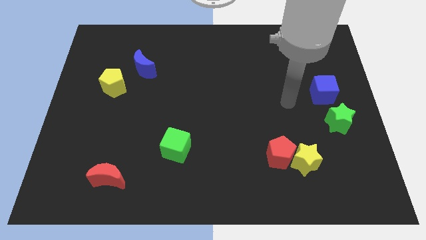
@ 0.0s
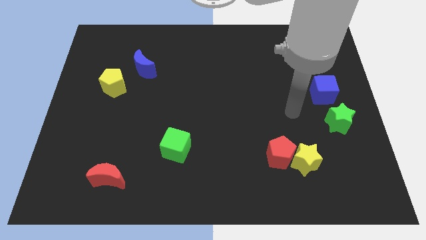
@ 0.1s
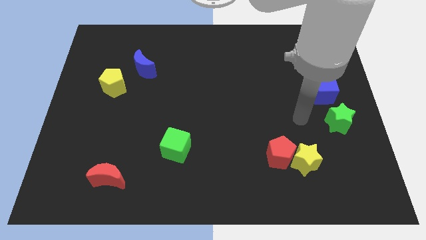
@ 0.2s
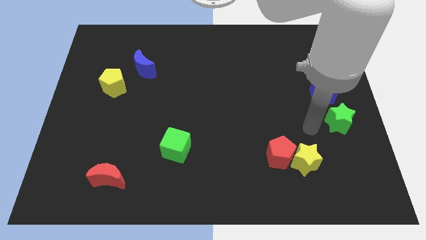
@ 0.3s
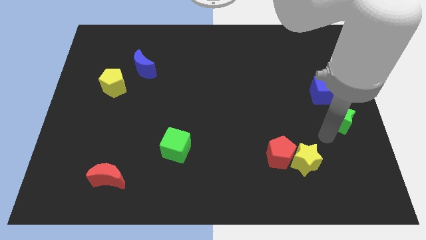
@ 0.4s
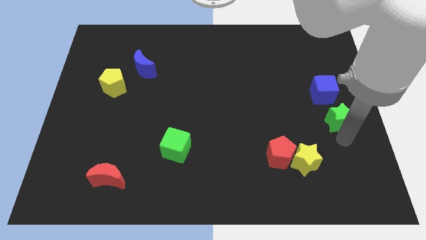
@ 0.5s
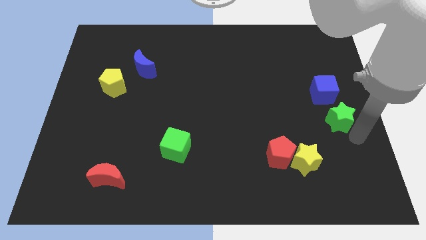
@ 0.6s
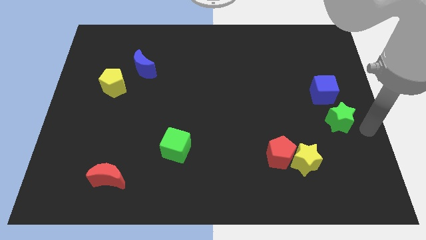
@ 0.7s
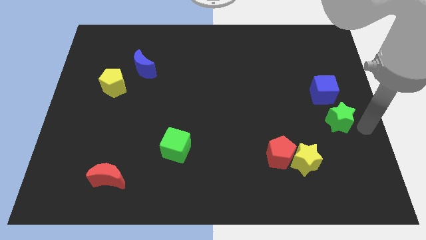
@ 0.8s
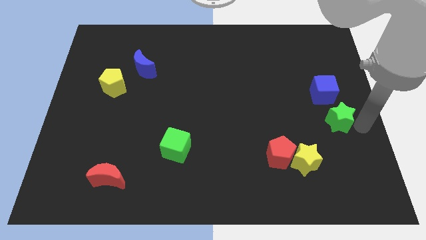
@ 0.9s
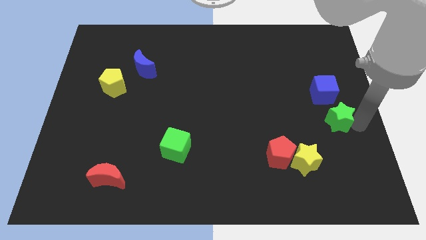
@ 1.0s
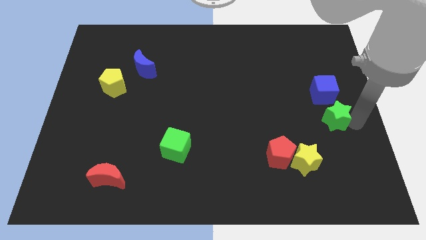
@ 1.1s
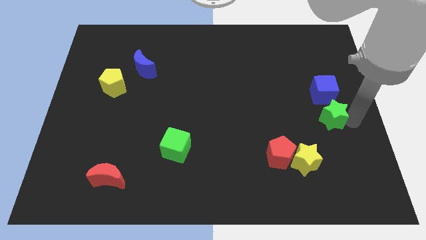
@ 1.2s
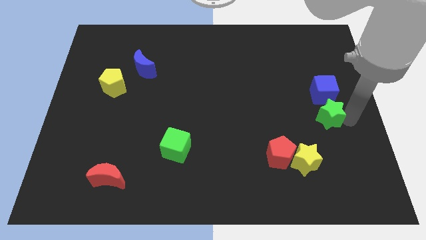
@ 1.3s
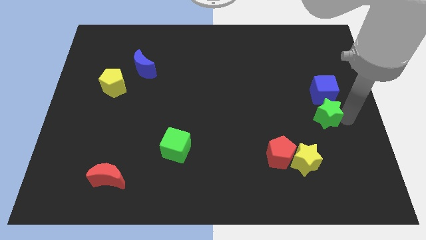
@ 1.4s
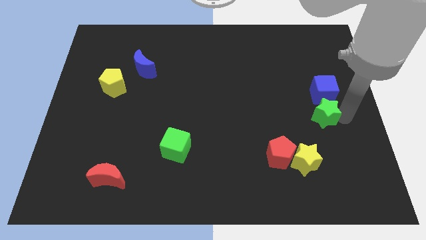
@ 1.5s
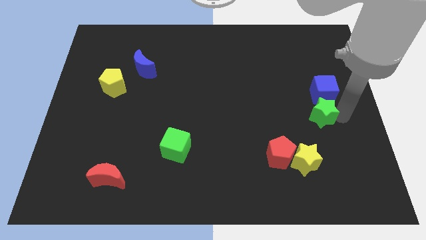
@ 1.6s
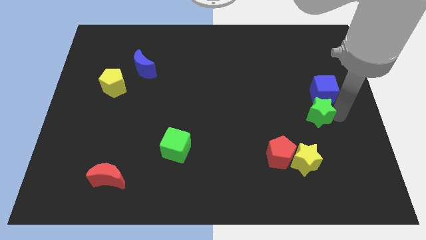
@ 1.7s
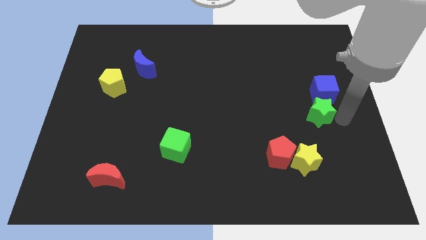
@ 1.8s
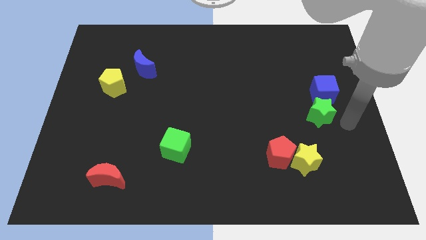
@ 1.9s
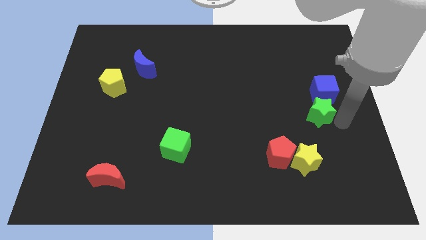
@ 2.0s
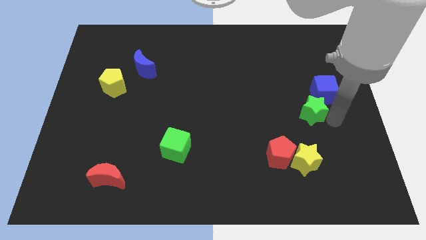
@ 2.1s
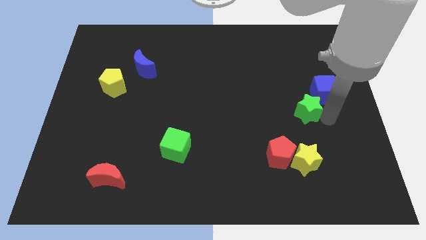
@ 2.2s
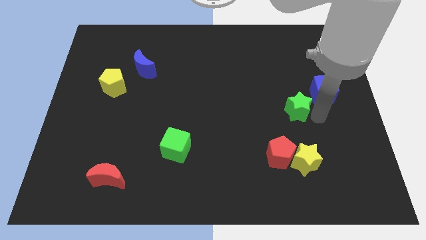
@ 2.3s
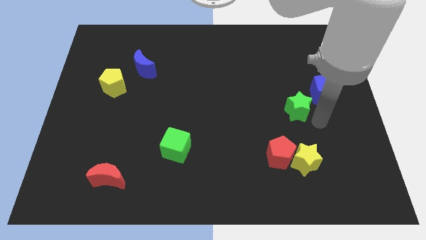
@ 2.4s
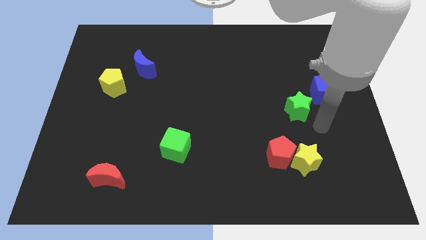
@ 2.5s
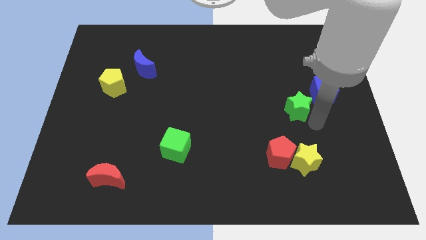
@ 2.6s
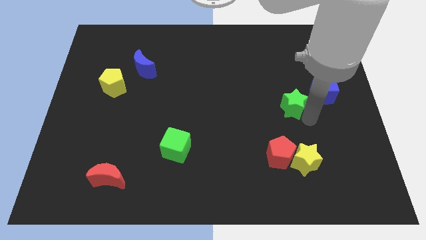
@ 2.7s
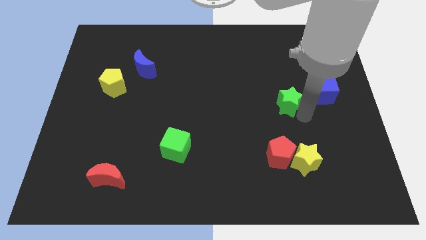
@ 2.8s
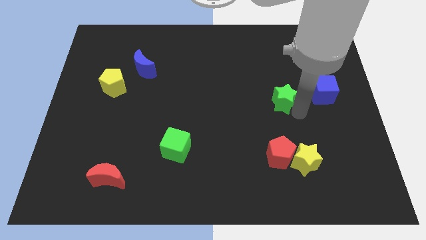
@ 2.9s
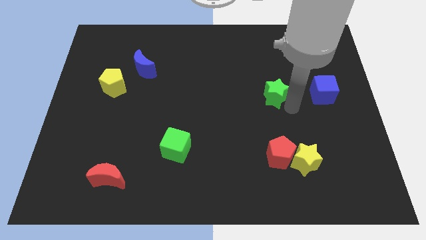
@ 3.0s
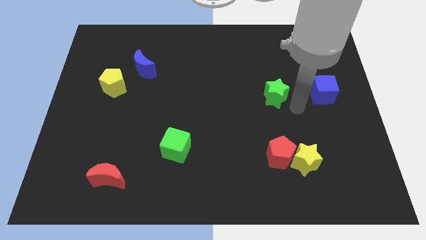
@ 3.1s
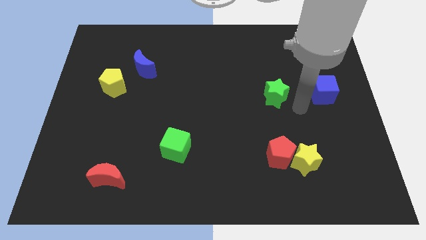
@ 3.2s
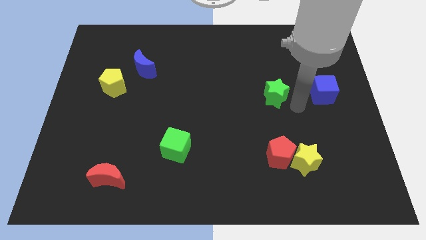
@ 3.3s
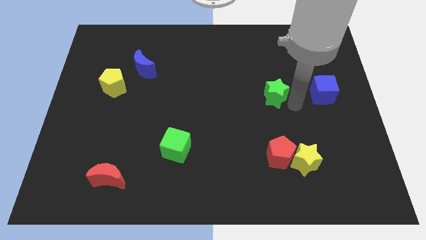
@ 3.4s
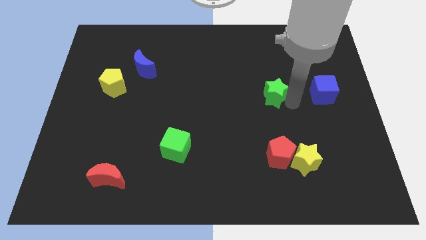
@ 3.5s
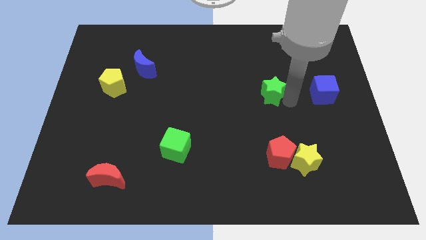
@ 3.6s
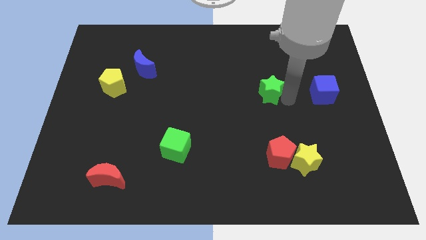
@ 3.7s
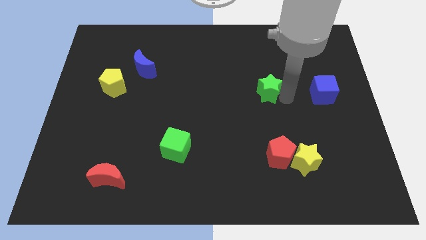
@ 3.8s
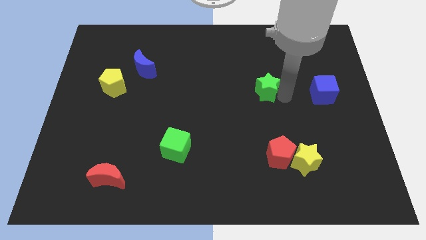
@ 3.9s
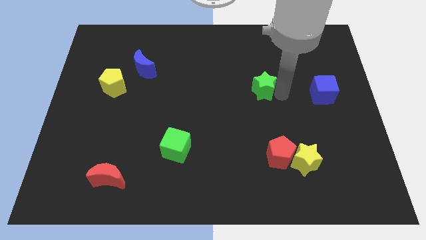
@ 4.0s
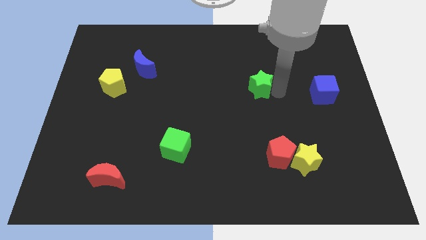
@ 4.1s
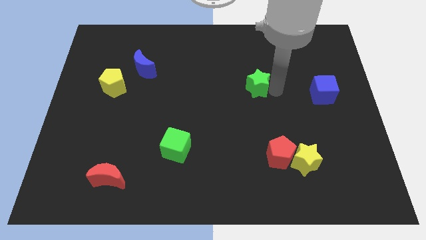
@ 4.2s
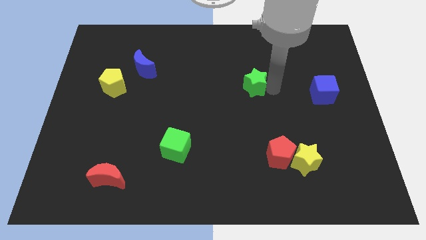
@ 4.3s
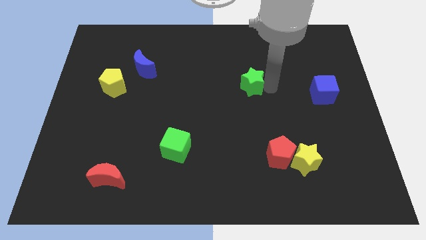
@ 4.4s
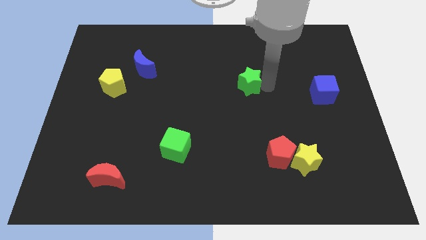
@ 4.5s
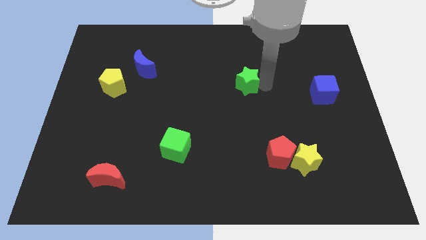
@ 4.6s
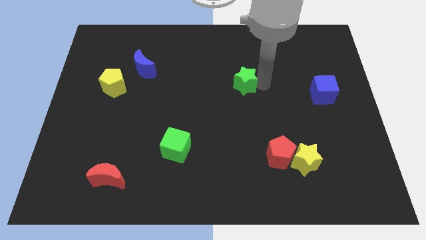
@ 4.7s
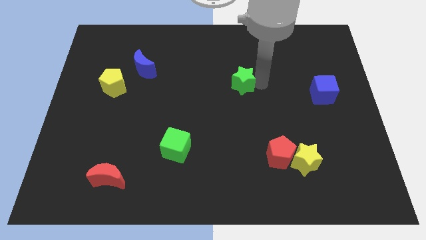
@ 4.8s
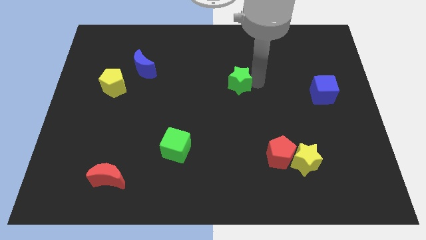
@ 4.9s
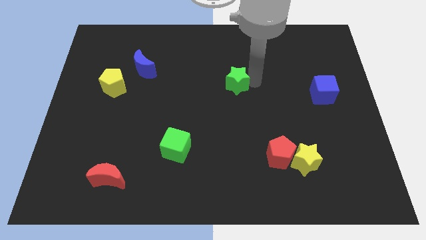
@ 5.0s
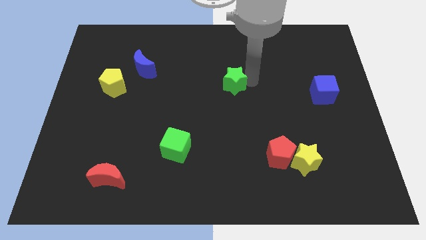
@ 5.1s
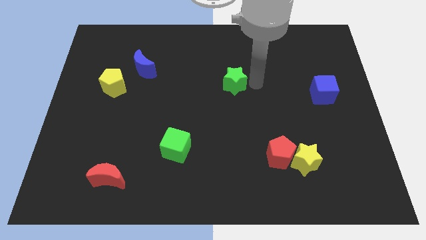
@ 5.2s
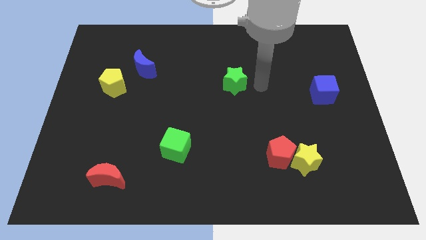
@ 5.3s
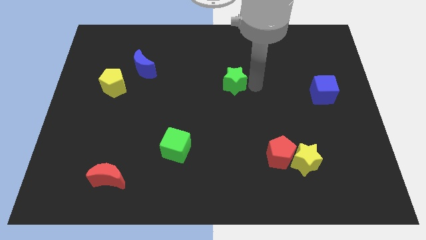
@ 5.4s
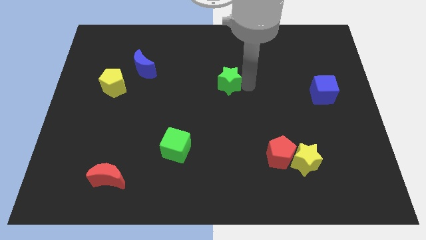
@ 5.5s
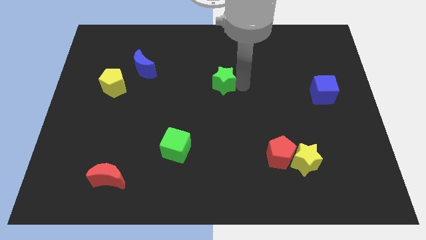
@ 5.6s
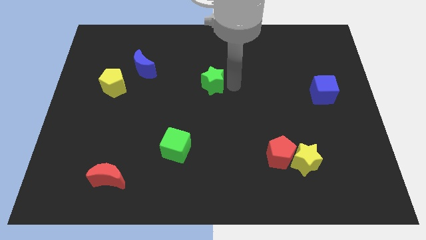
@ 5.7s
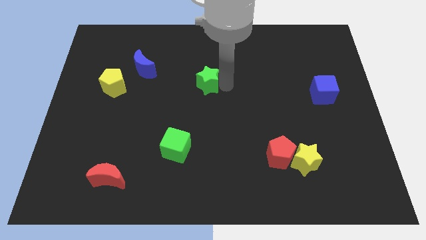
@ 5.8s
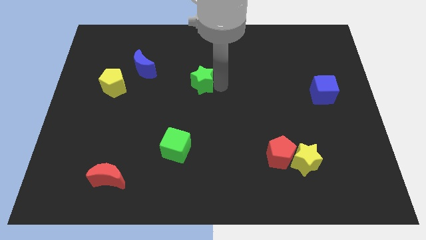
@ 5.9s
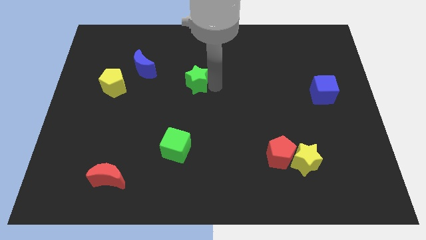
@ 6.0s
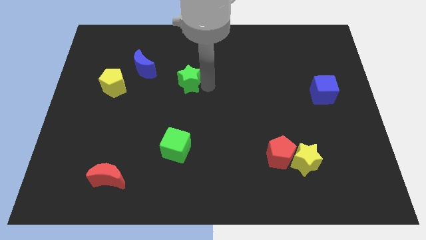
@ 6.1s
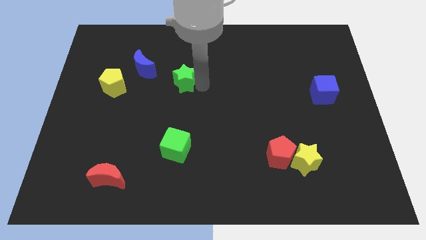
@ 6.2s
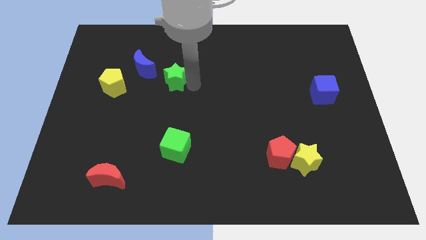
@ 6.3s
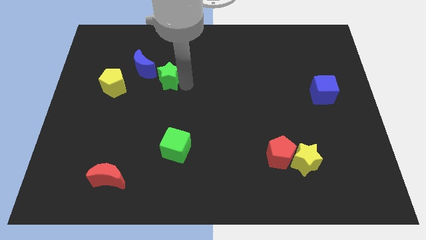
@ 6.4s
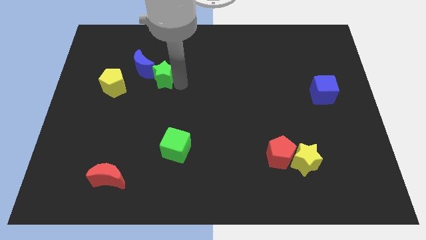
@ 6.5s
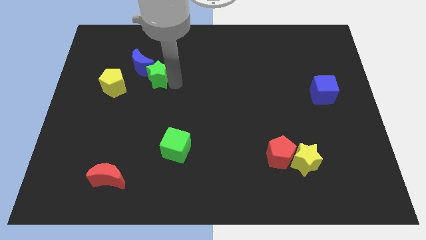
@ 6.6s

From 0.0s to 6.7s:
slide the green star to the blue moon

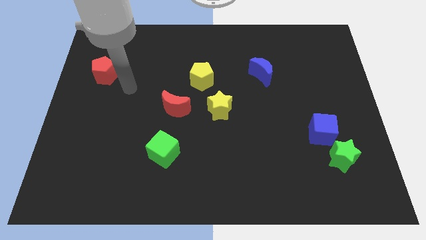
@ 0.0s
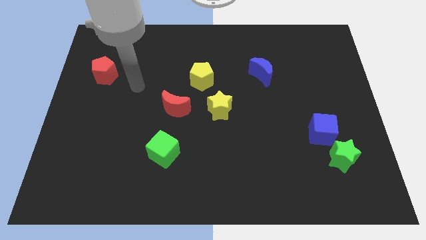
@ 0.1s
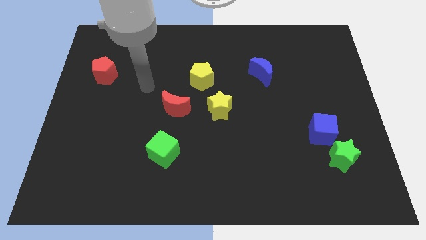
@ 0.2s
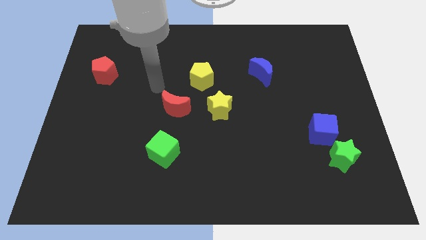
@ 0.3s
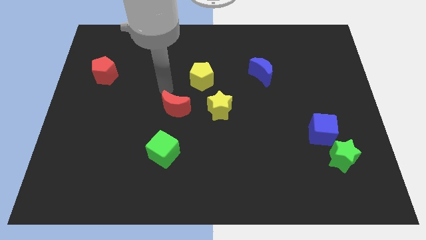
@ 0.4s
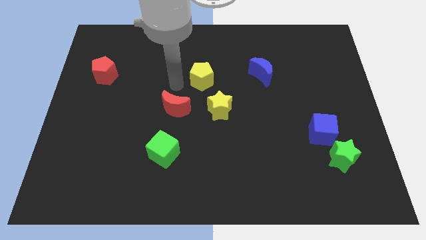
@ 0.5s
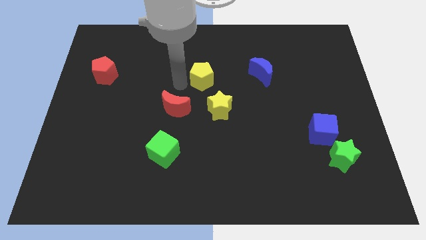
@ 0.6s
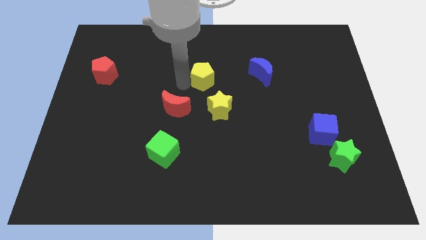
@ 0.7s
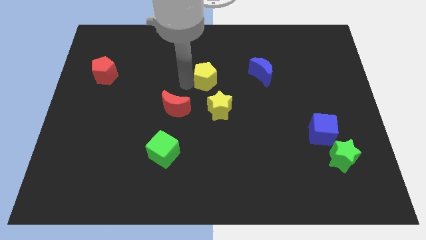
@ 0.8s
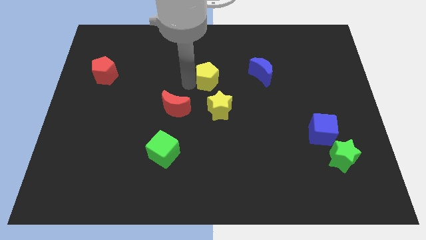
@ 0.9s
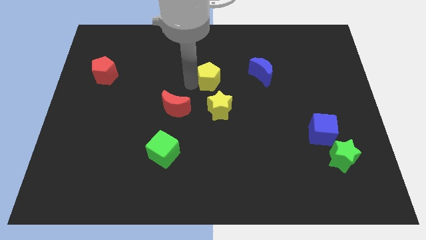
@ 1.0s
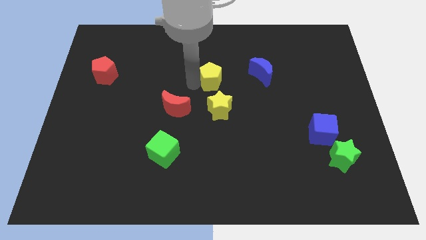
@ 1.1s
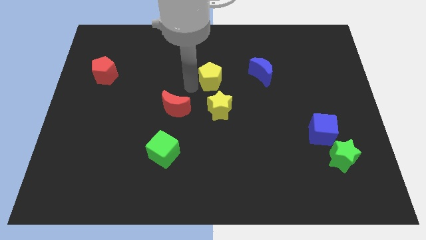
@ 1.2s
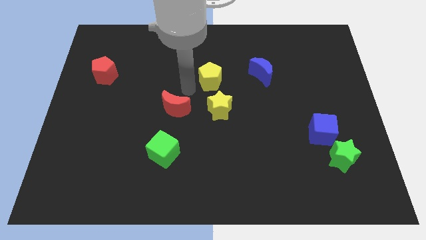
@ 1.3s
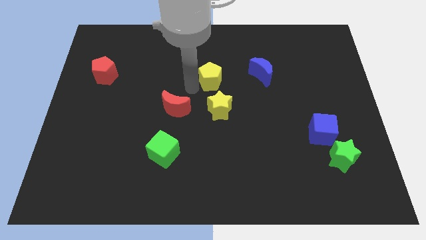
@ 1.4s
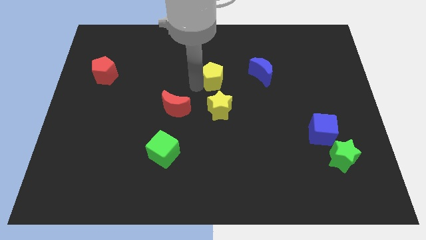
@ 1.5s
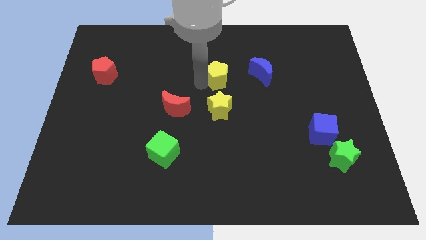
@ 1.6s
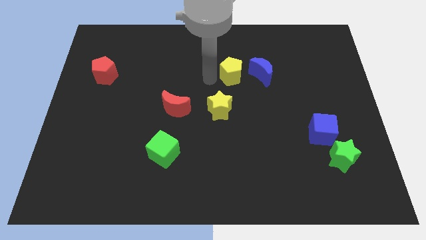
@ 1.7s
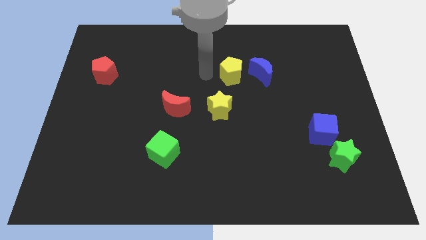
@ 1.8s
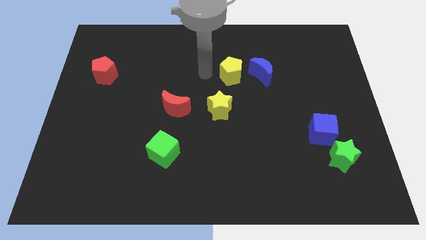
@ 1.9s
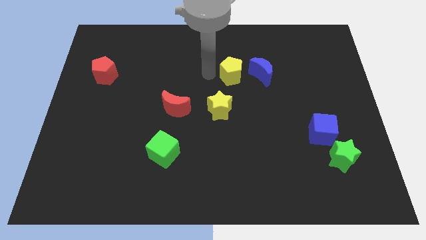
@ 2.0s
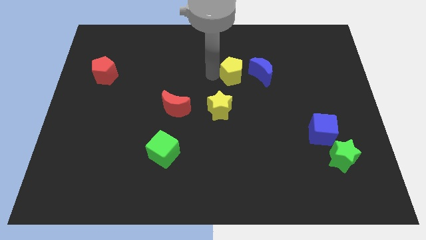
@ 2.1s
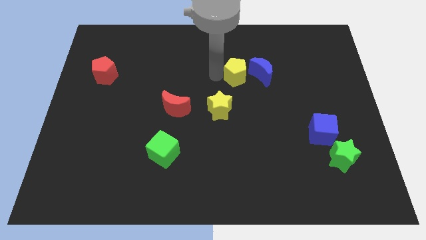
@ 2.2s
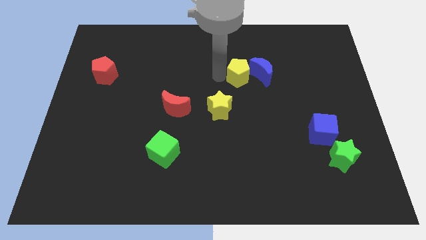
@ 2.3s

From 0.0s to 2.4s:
slide the yellow pentagon close to the blue moon
